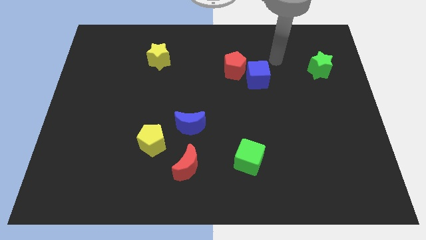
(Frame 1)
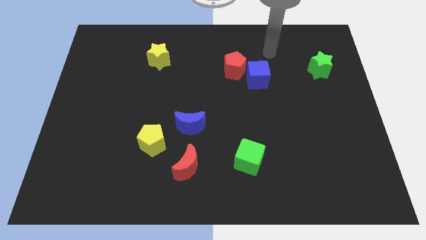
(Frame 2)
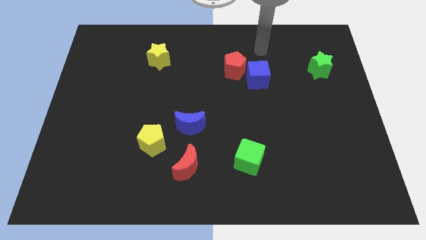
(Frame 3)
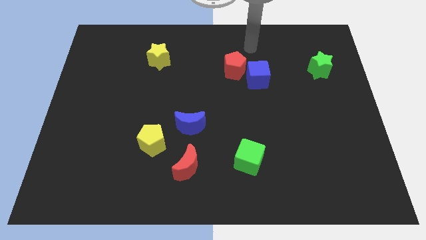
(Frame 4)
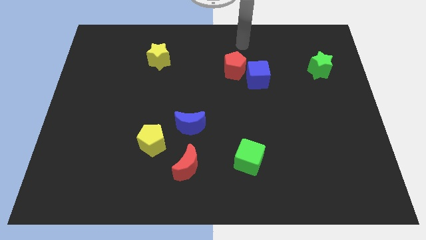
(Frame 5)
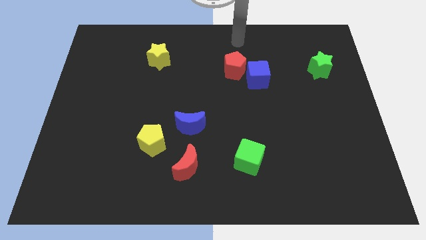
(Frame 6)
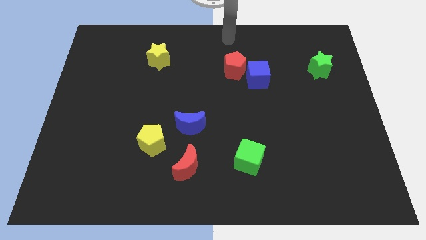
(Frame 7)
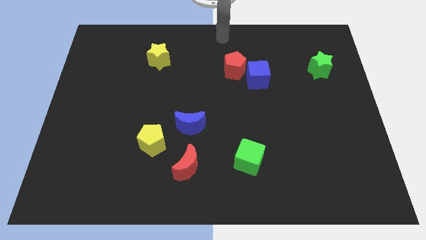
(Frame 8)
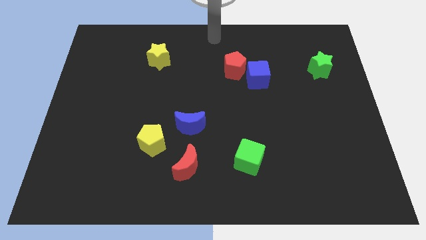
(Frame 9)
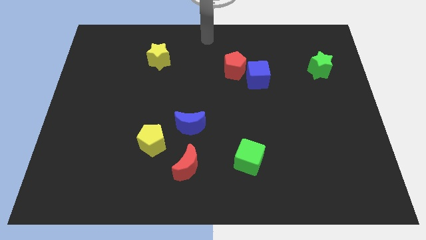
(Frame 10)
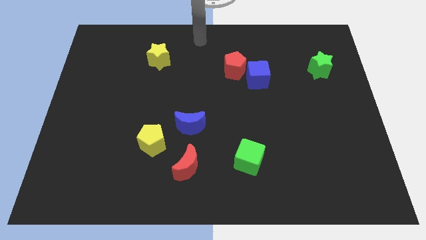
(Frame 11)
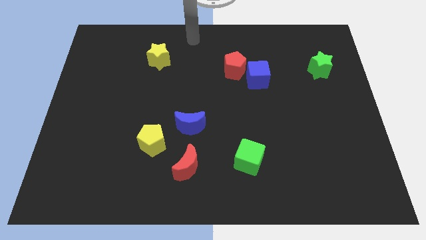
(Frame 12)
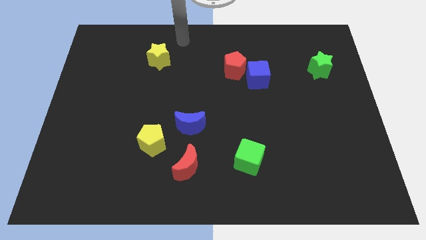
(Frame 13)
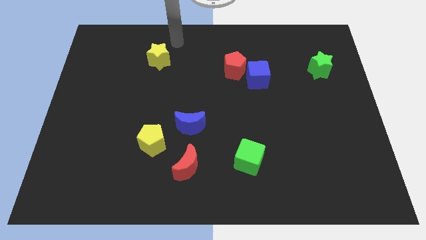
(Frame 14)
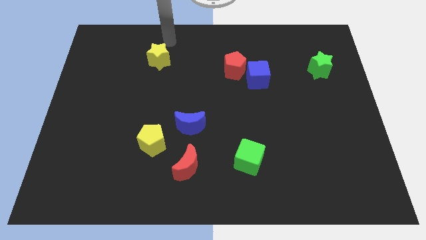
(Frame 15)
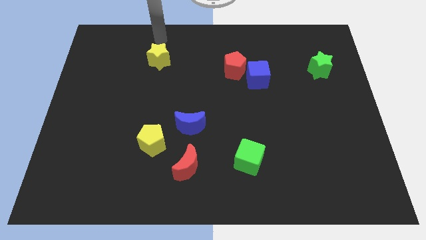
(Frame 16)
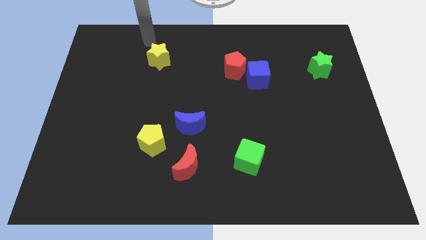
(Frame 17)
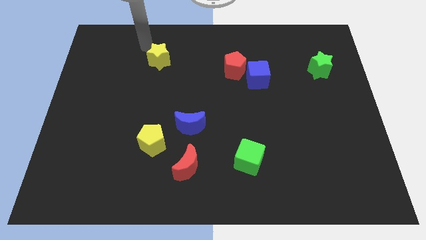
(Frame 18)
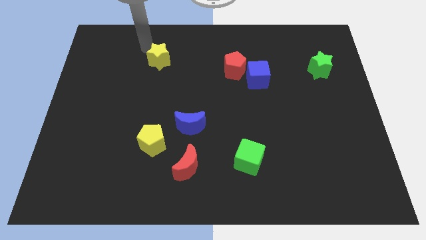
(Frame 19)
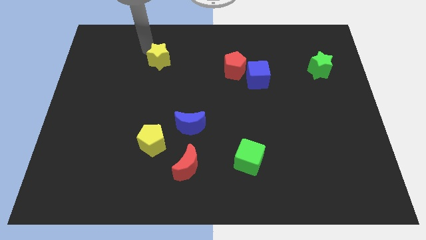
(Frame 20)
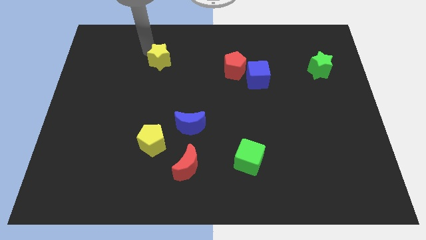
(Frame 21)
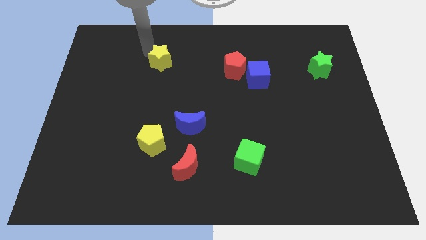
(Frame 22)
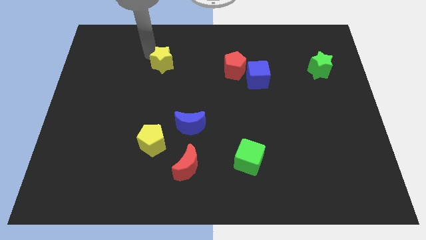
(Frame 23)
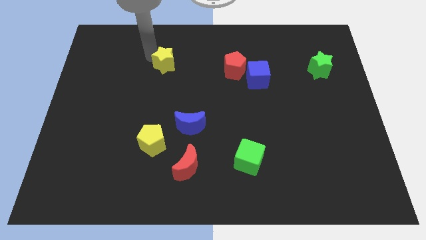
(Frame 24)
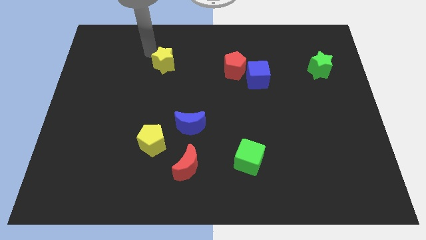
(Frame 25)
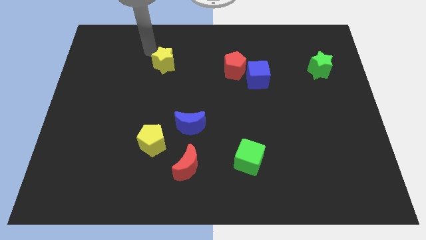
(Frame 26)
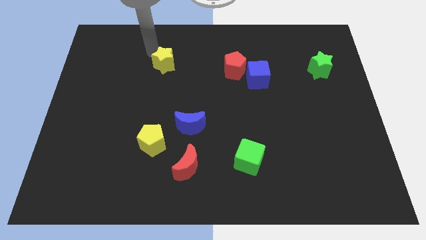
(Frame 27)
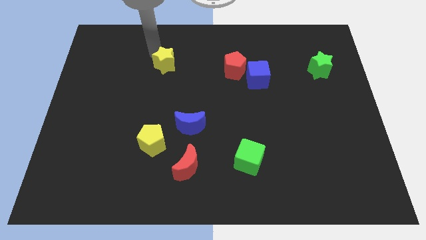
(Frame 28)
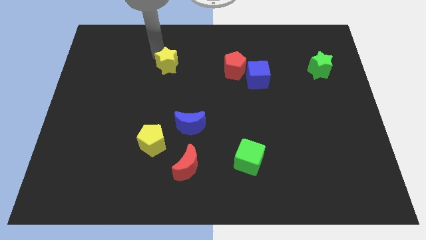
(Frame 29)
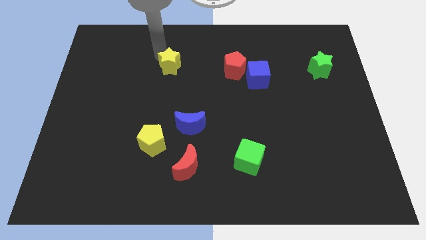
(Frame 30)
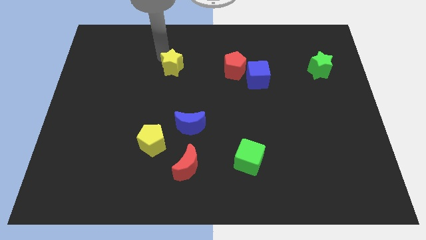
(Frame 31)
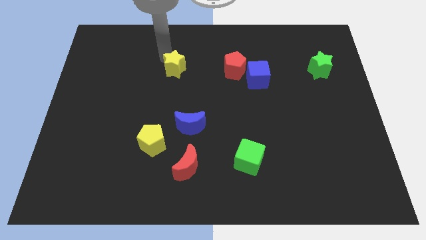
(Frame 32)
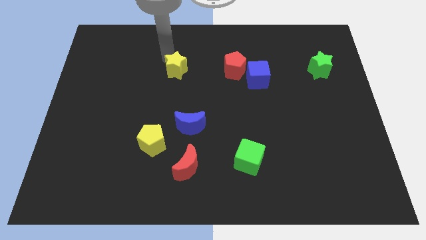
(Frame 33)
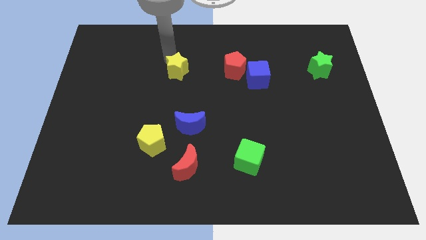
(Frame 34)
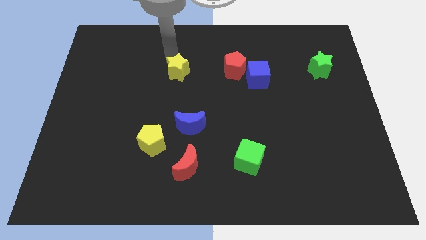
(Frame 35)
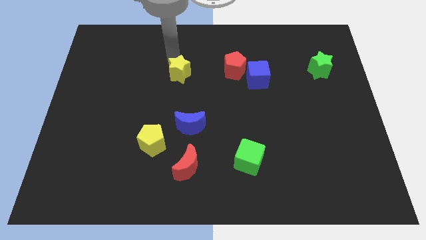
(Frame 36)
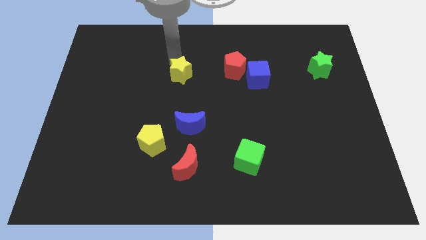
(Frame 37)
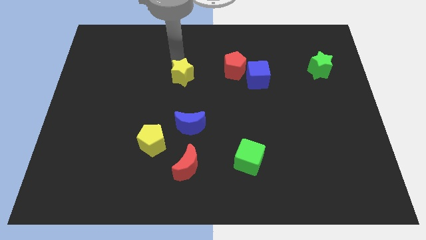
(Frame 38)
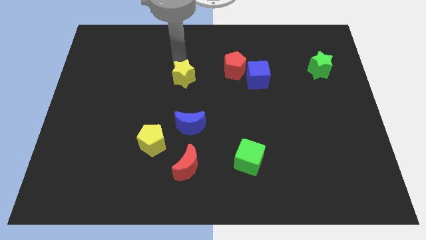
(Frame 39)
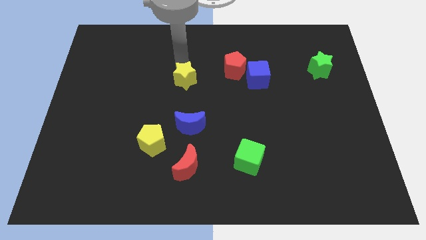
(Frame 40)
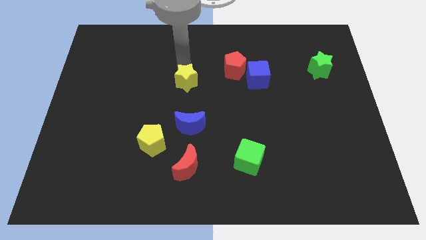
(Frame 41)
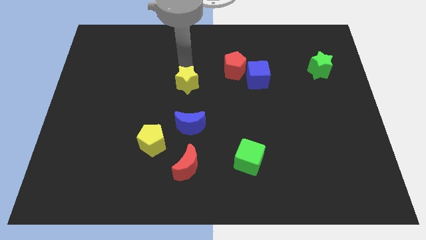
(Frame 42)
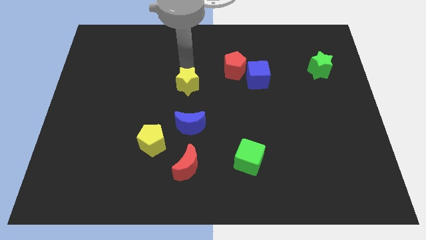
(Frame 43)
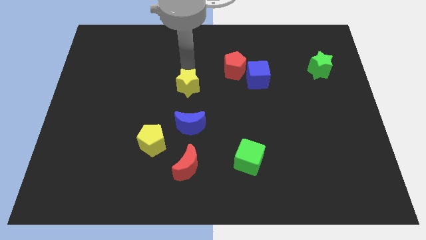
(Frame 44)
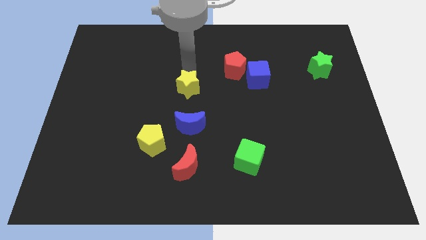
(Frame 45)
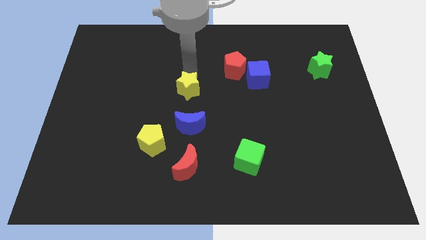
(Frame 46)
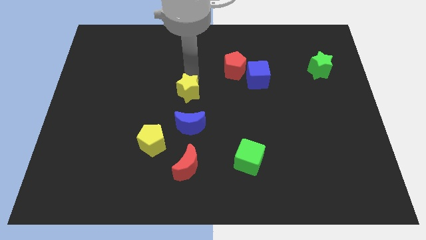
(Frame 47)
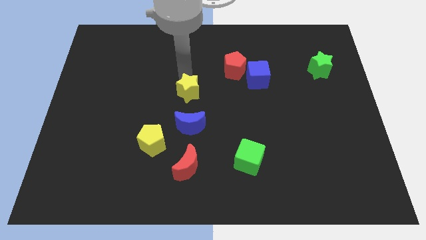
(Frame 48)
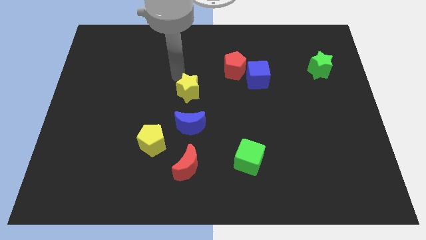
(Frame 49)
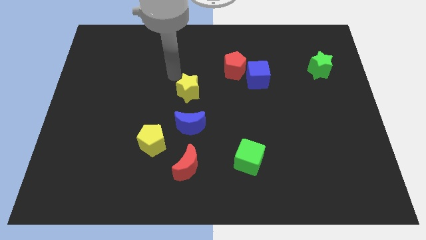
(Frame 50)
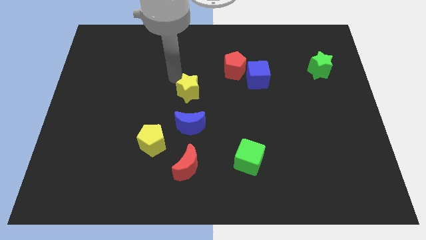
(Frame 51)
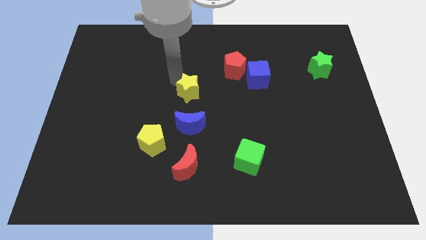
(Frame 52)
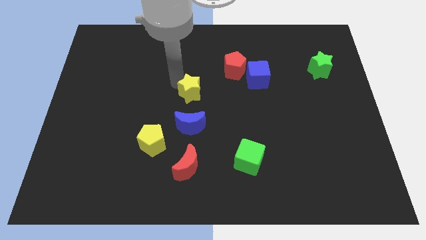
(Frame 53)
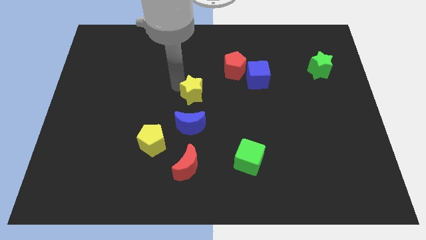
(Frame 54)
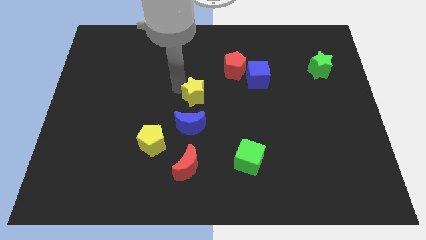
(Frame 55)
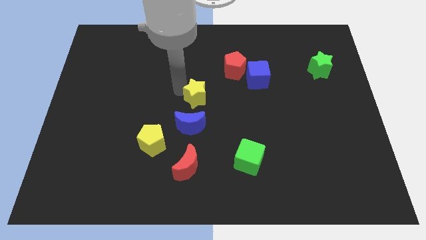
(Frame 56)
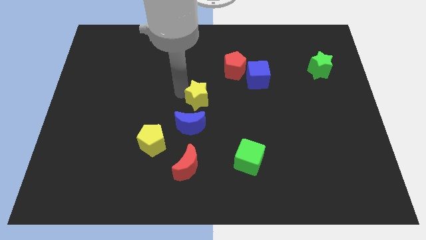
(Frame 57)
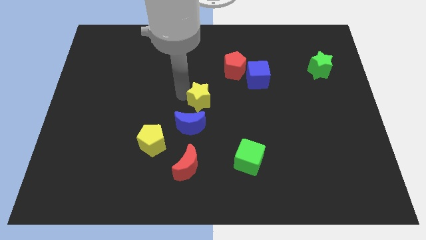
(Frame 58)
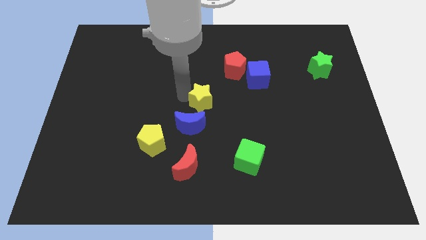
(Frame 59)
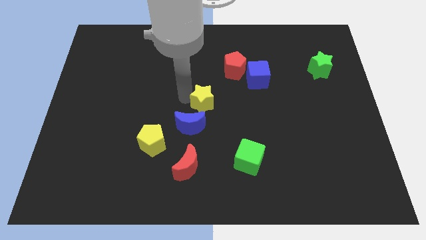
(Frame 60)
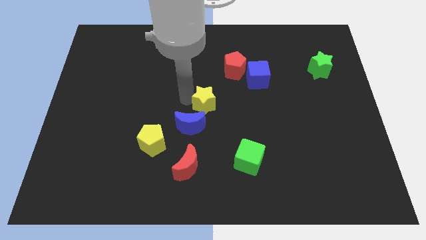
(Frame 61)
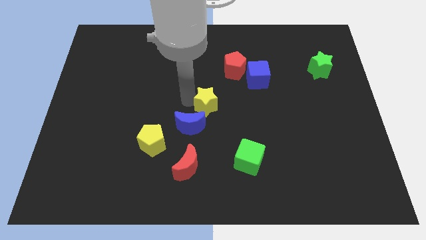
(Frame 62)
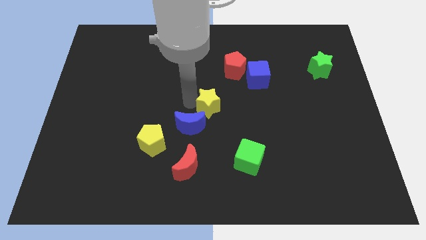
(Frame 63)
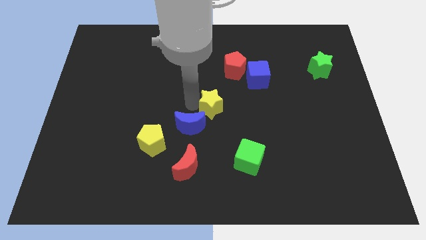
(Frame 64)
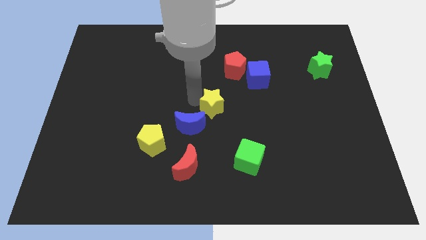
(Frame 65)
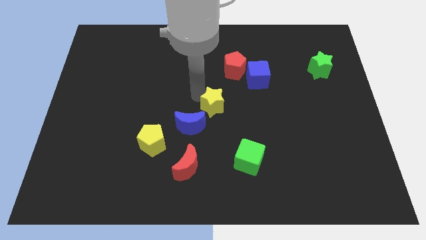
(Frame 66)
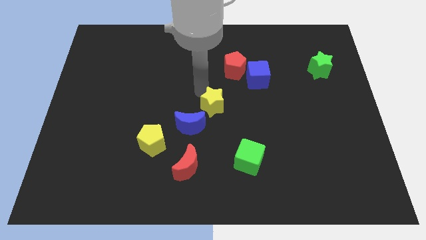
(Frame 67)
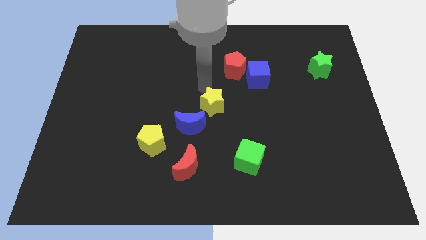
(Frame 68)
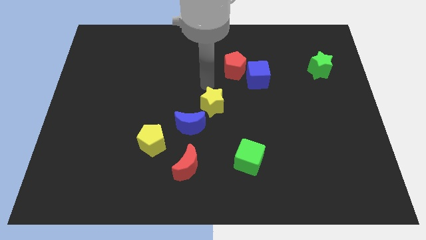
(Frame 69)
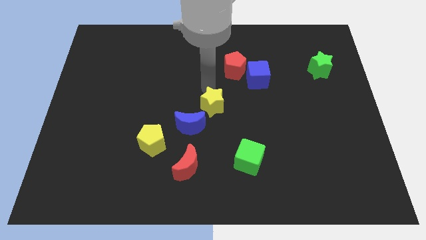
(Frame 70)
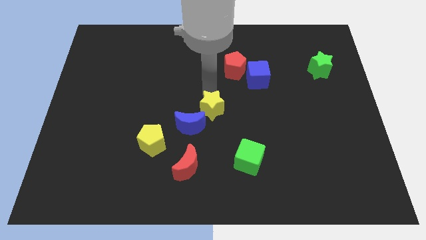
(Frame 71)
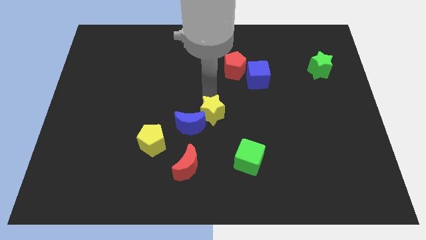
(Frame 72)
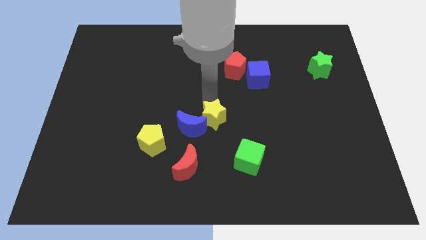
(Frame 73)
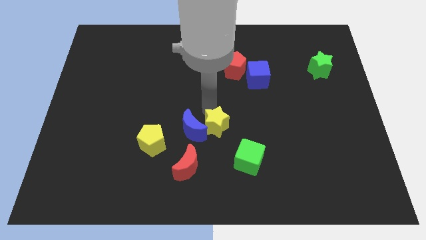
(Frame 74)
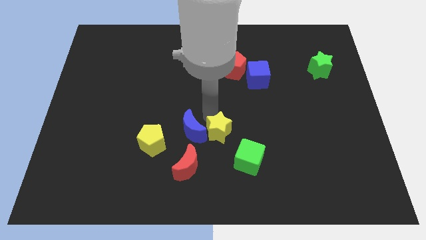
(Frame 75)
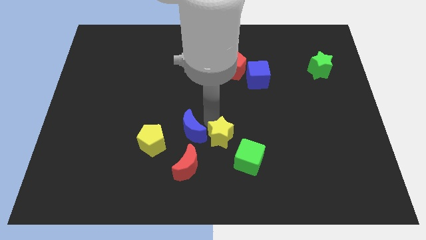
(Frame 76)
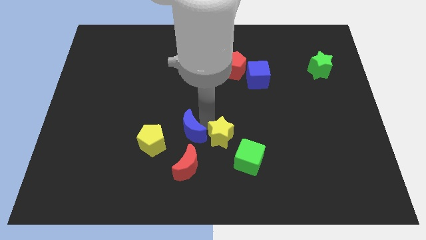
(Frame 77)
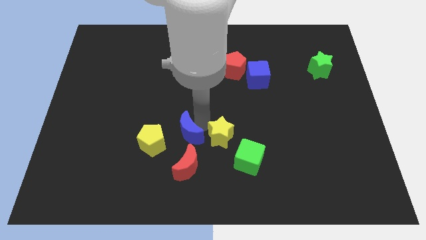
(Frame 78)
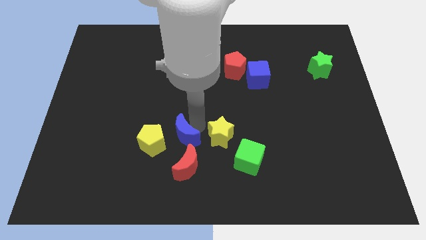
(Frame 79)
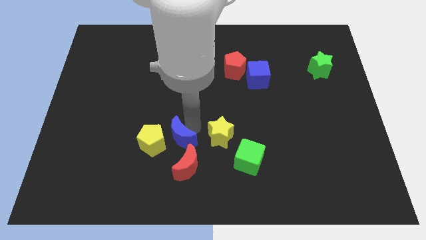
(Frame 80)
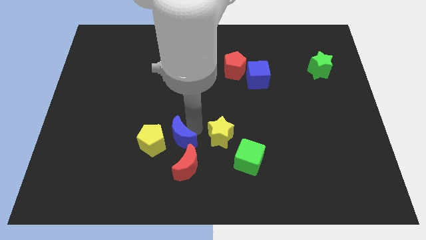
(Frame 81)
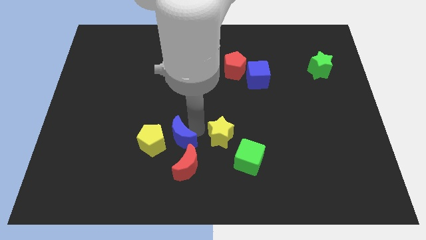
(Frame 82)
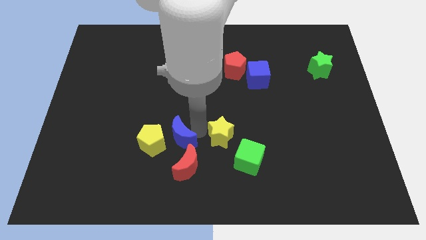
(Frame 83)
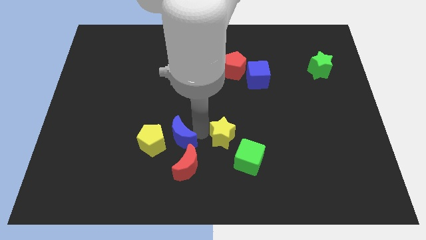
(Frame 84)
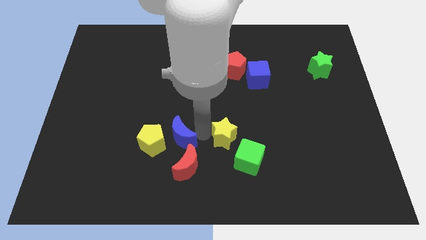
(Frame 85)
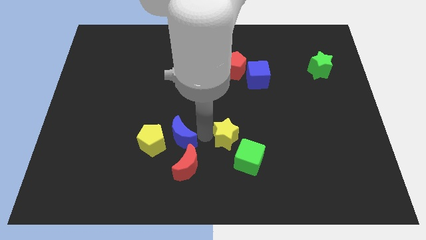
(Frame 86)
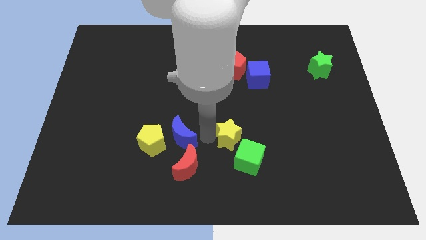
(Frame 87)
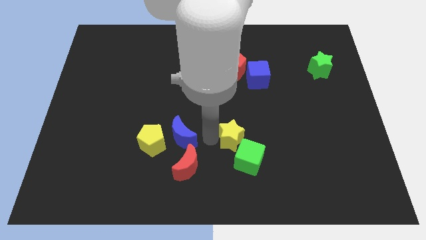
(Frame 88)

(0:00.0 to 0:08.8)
put the yellow star close to the green cube
